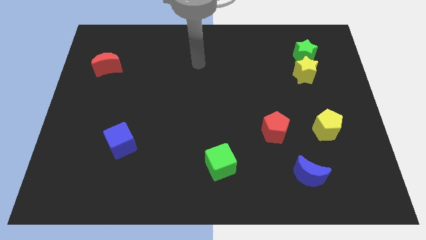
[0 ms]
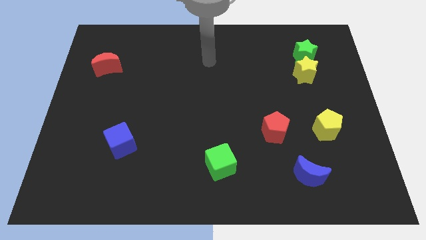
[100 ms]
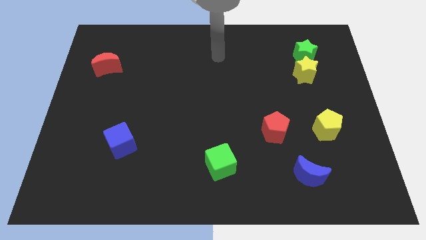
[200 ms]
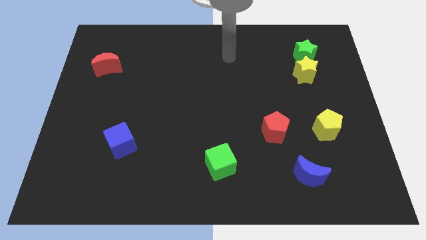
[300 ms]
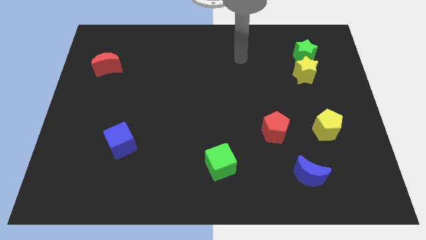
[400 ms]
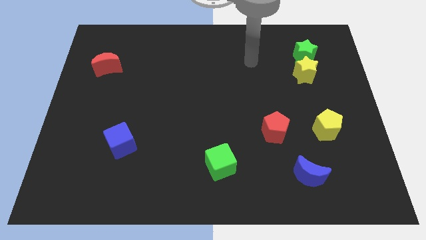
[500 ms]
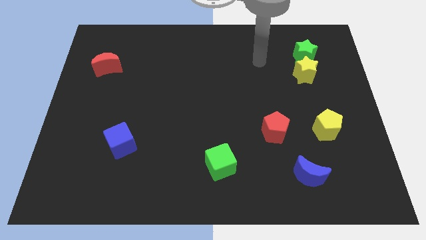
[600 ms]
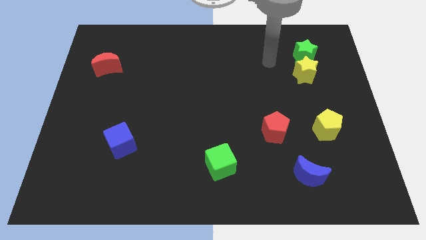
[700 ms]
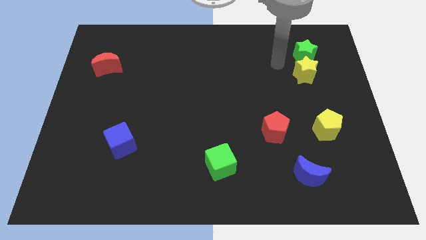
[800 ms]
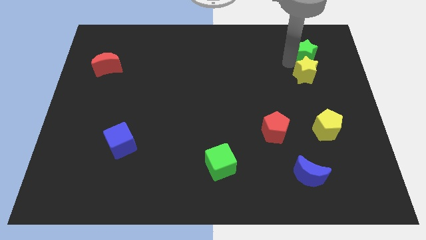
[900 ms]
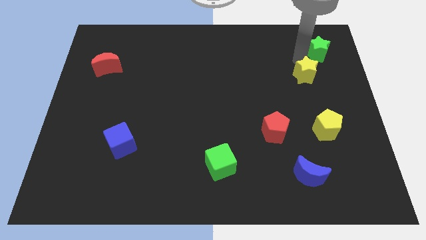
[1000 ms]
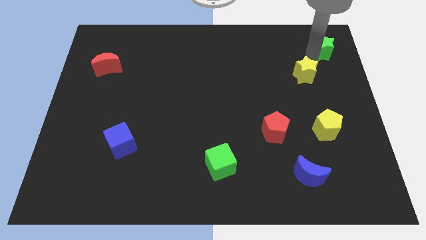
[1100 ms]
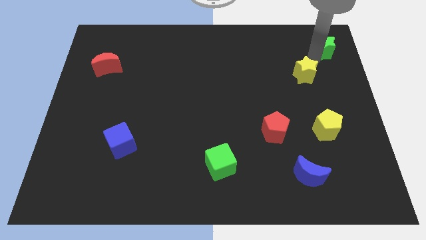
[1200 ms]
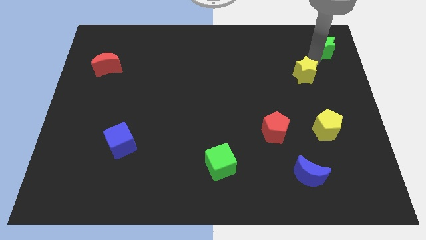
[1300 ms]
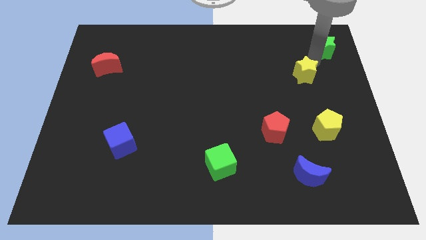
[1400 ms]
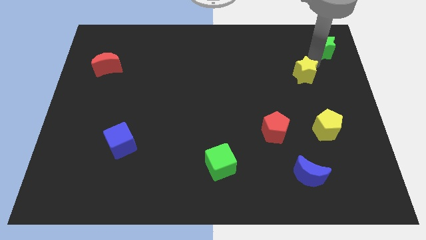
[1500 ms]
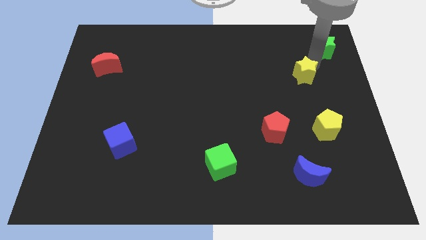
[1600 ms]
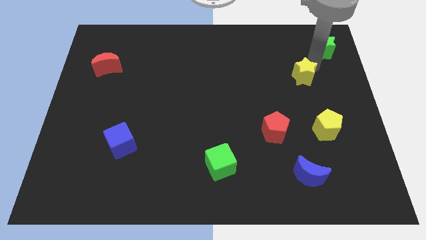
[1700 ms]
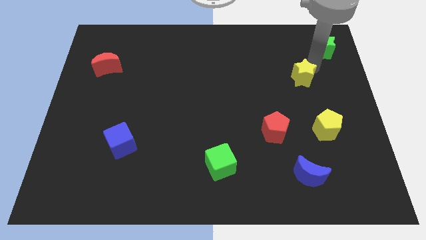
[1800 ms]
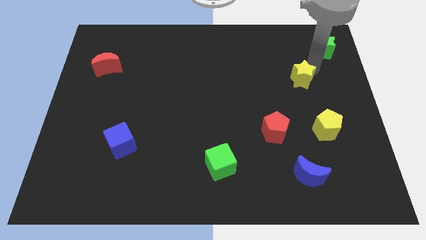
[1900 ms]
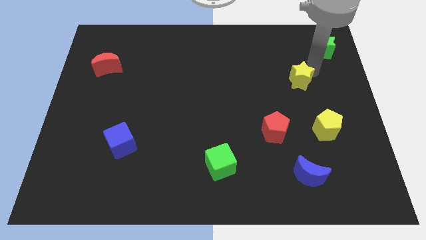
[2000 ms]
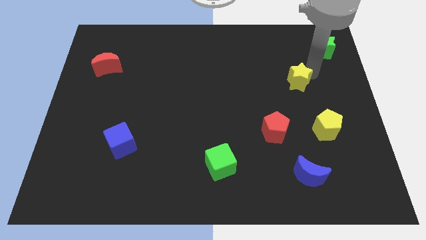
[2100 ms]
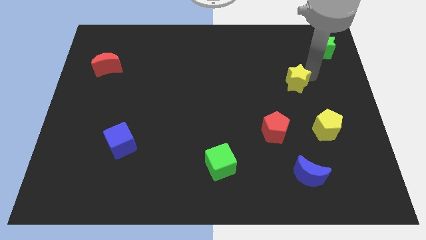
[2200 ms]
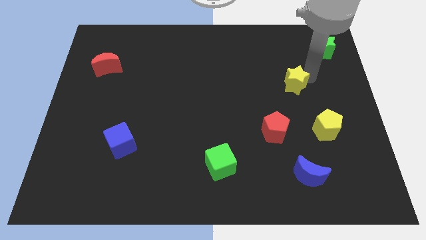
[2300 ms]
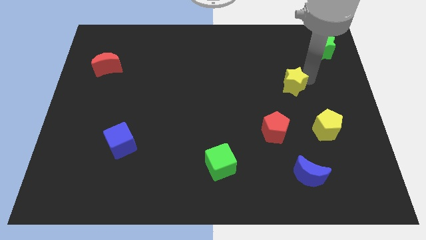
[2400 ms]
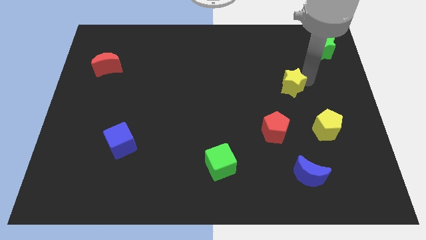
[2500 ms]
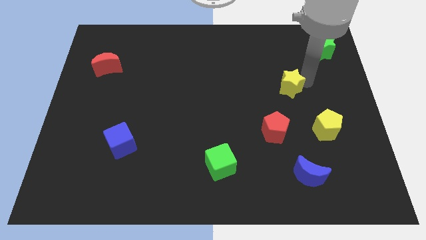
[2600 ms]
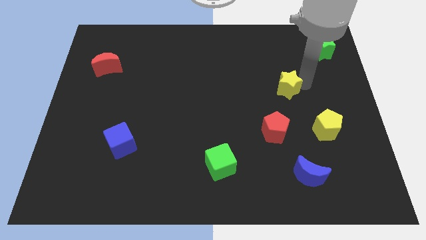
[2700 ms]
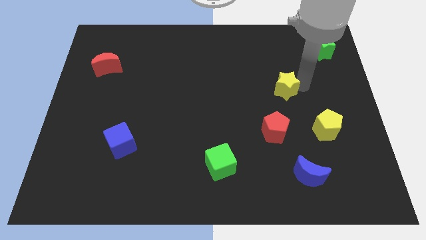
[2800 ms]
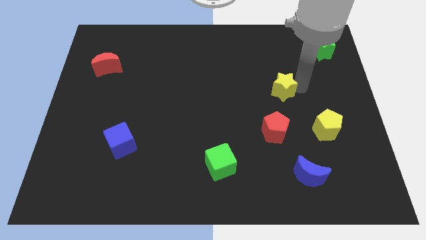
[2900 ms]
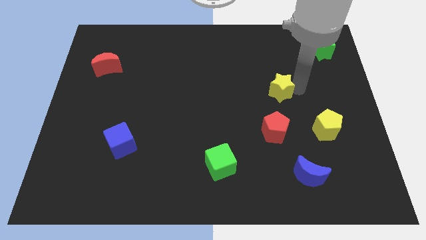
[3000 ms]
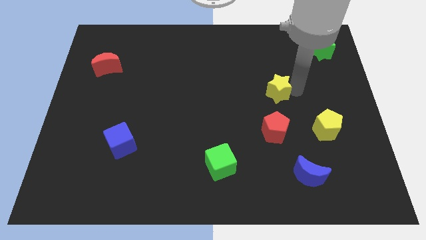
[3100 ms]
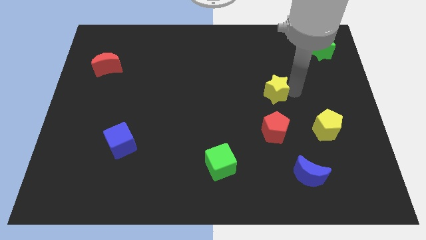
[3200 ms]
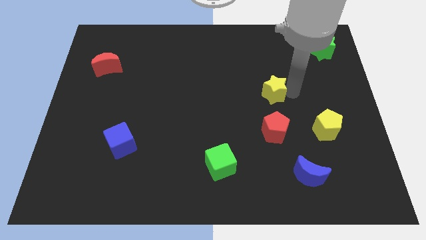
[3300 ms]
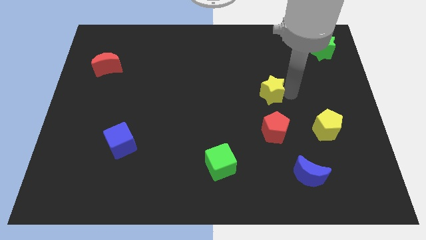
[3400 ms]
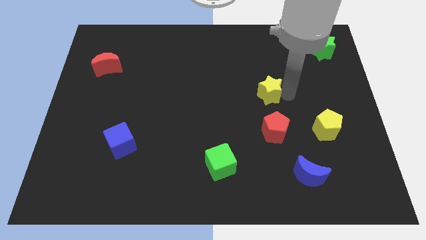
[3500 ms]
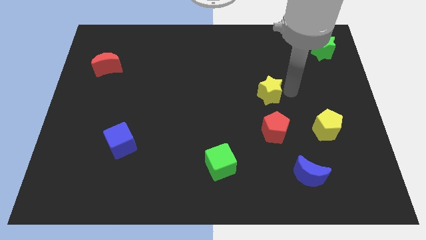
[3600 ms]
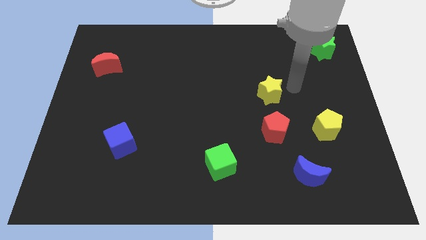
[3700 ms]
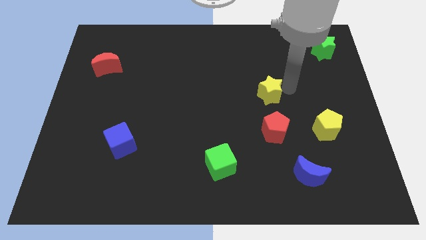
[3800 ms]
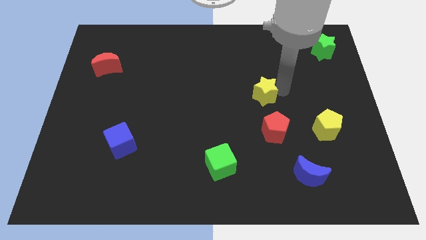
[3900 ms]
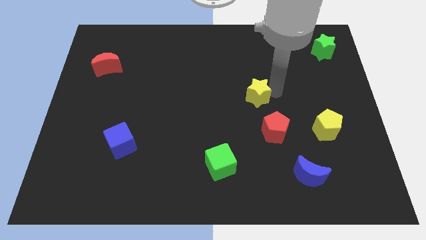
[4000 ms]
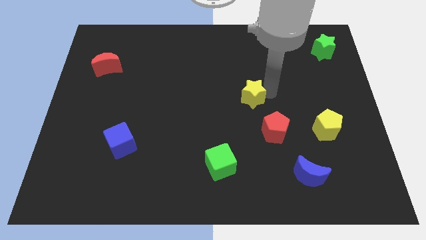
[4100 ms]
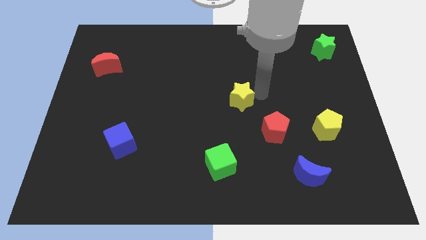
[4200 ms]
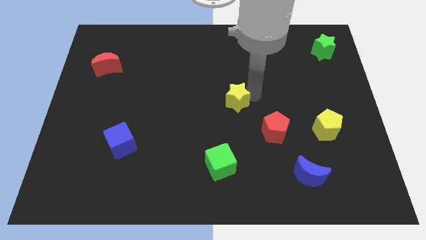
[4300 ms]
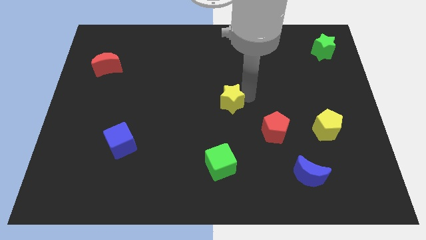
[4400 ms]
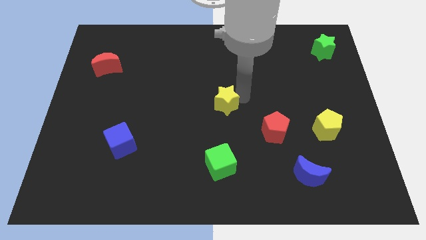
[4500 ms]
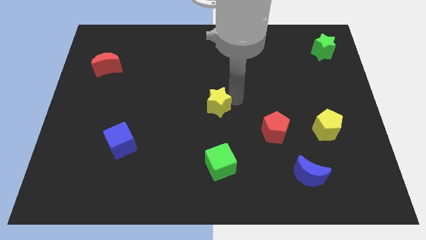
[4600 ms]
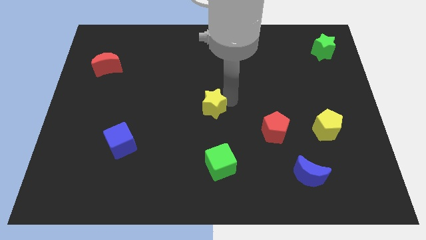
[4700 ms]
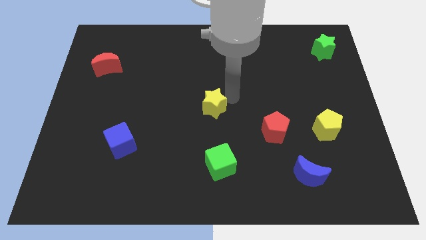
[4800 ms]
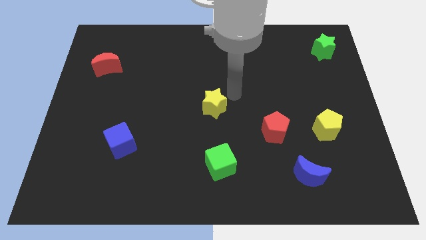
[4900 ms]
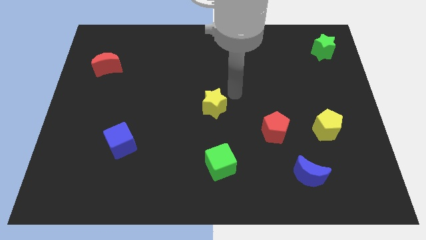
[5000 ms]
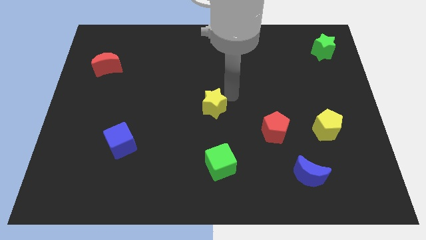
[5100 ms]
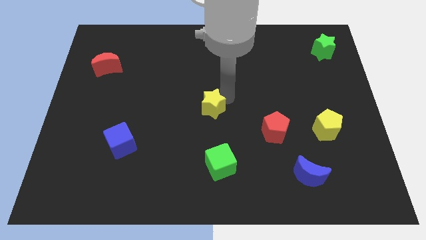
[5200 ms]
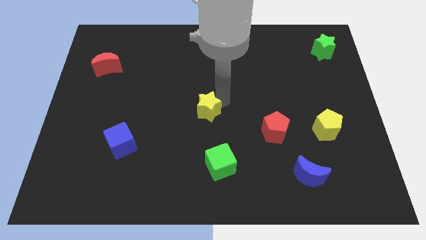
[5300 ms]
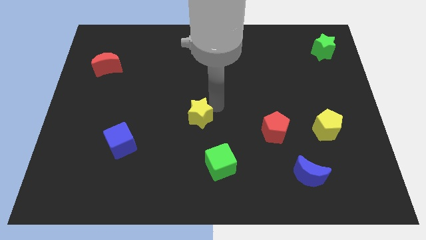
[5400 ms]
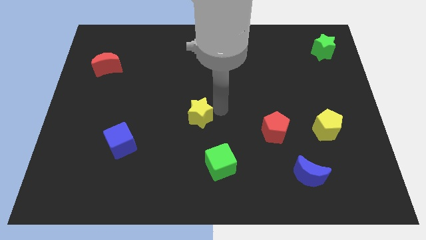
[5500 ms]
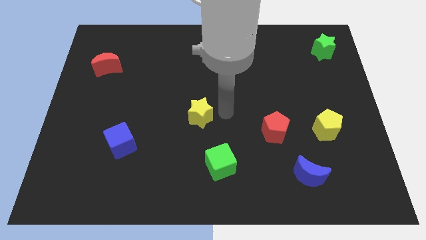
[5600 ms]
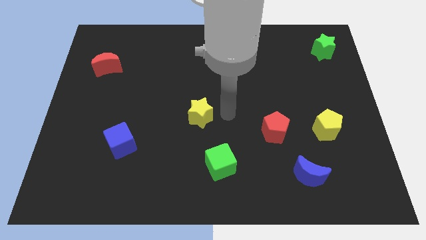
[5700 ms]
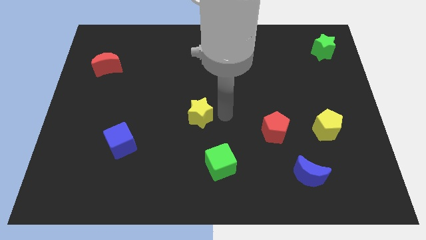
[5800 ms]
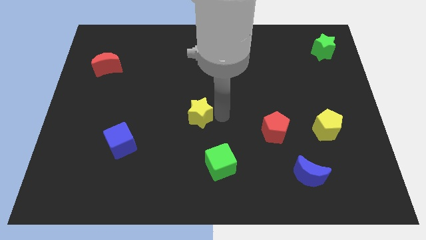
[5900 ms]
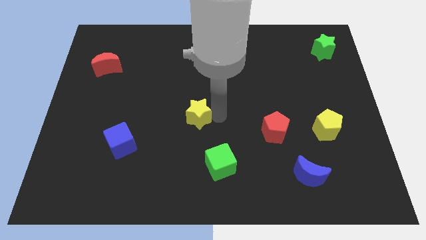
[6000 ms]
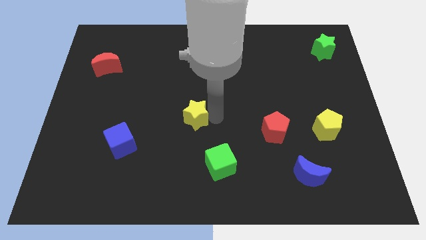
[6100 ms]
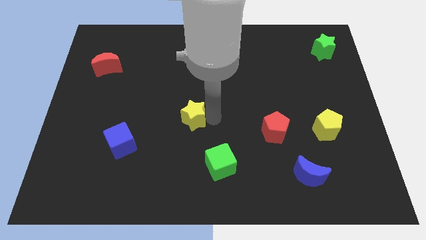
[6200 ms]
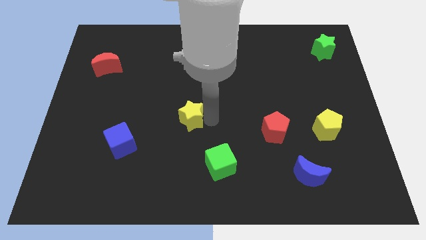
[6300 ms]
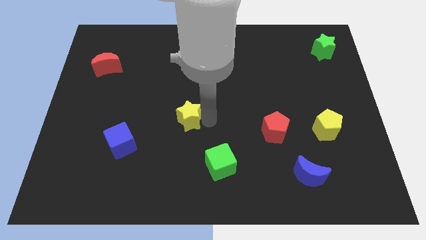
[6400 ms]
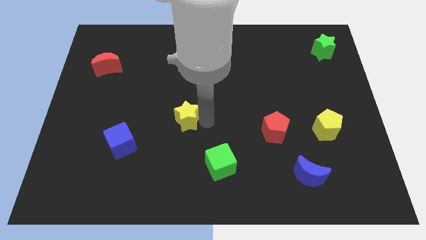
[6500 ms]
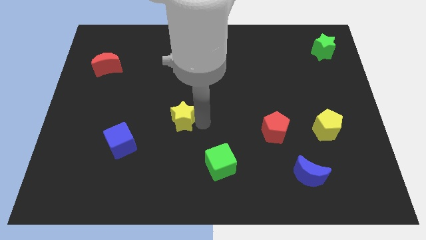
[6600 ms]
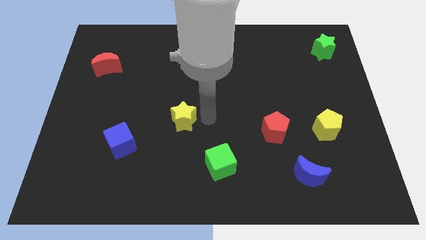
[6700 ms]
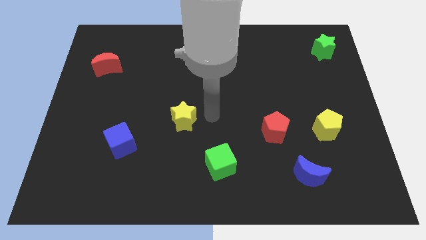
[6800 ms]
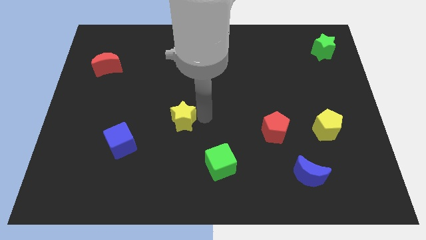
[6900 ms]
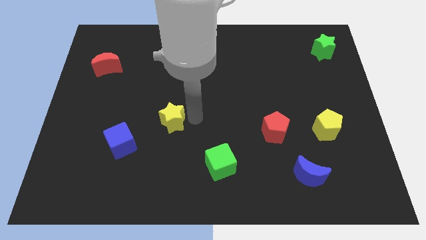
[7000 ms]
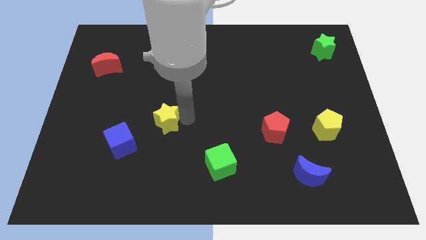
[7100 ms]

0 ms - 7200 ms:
slide the yellow star to the top right side of the blue cube
